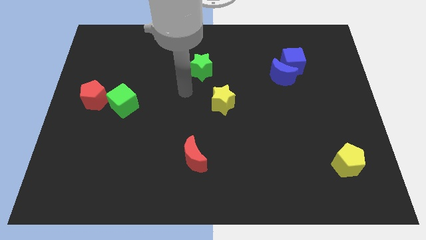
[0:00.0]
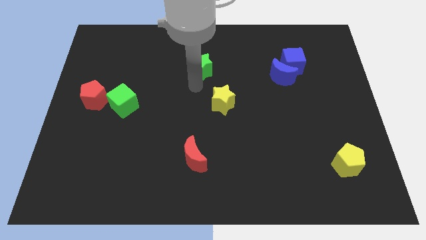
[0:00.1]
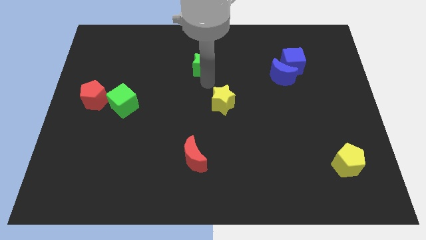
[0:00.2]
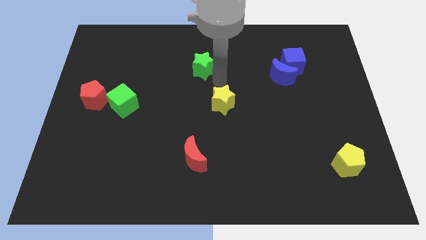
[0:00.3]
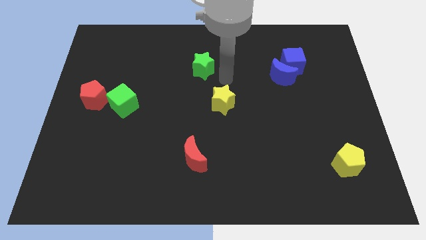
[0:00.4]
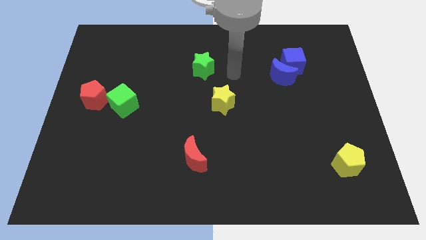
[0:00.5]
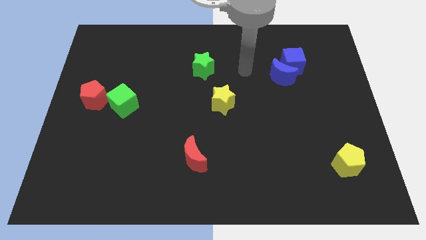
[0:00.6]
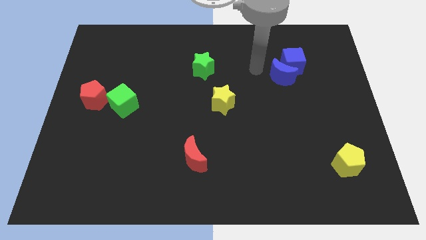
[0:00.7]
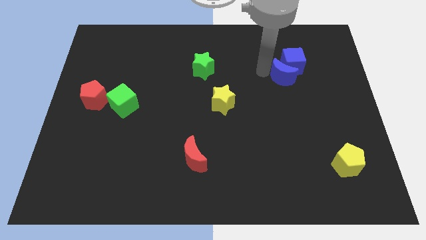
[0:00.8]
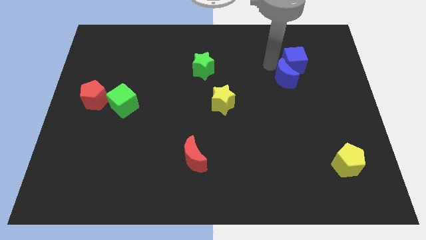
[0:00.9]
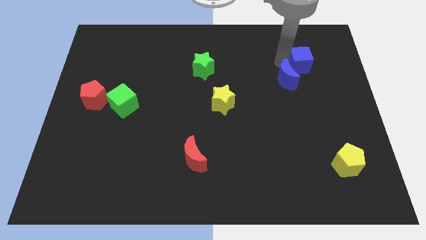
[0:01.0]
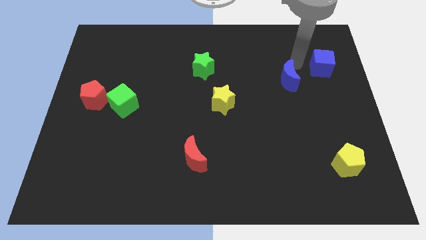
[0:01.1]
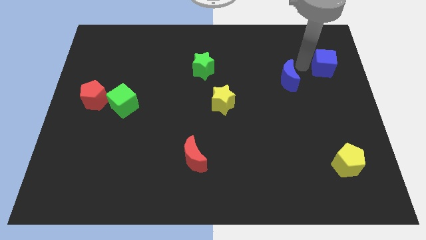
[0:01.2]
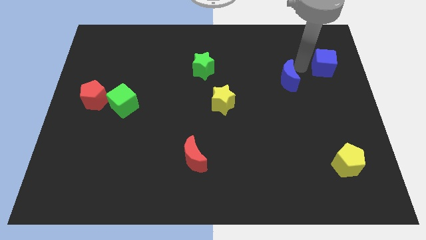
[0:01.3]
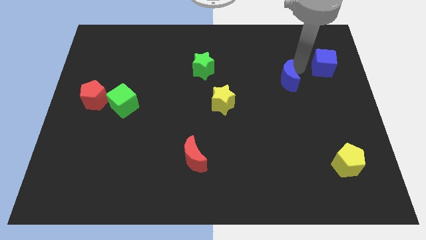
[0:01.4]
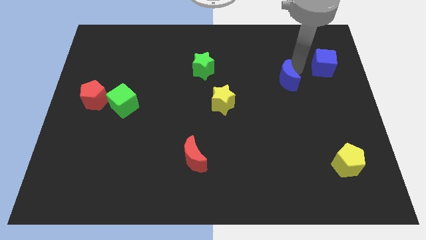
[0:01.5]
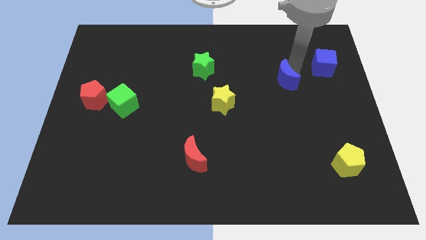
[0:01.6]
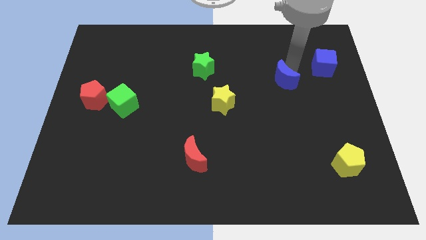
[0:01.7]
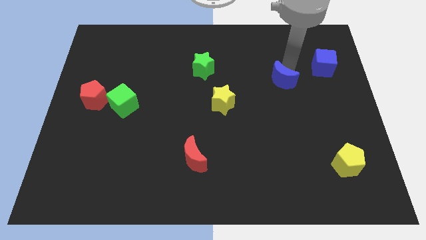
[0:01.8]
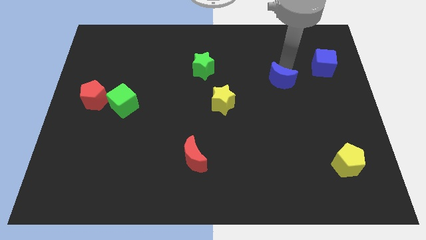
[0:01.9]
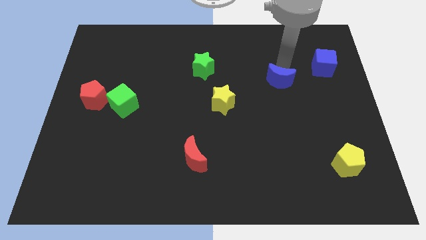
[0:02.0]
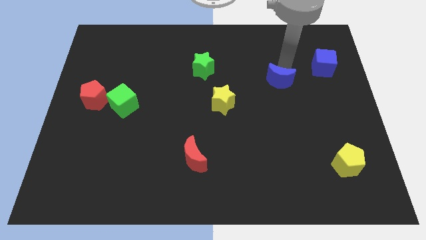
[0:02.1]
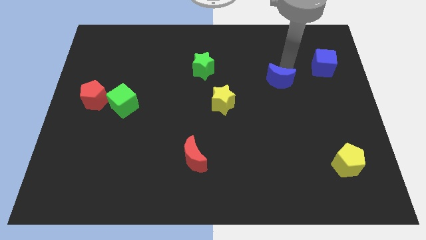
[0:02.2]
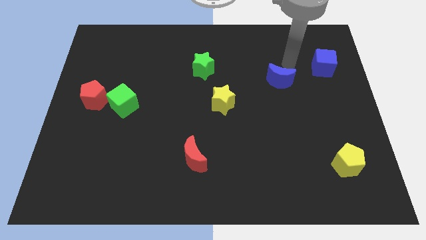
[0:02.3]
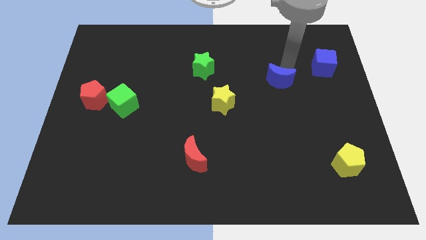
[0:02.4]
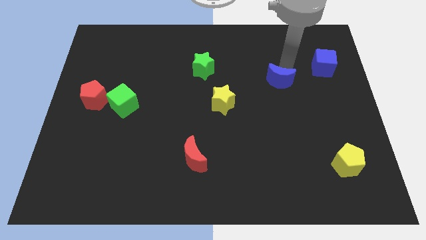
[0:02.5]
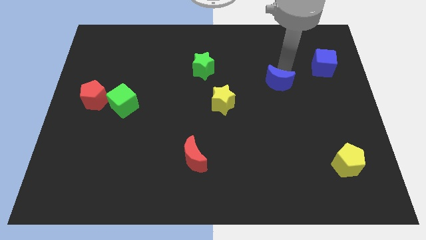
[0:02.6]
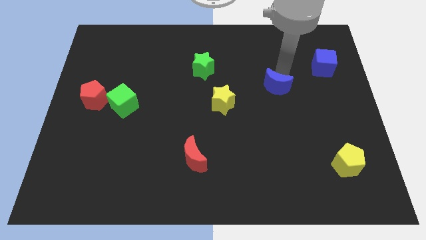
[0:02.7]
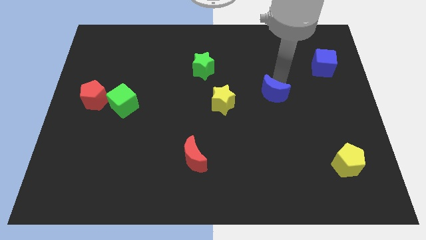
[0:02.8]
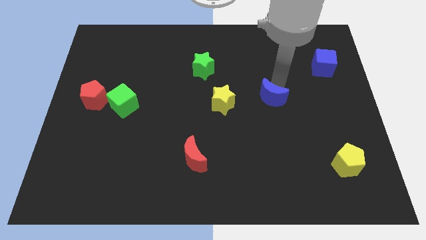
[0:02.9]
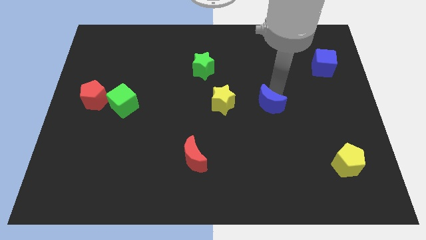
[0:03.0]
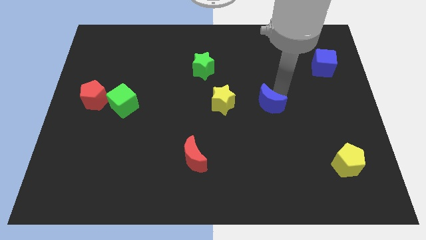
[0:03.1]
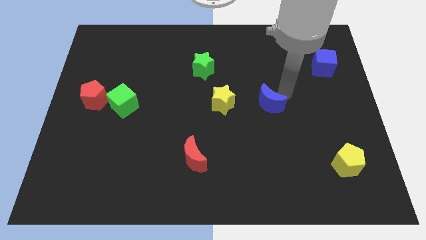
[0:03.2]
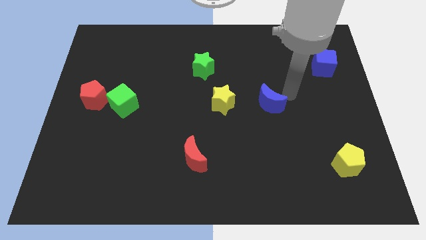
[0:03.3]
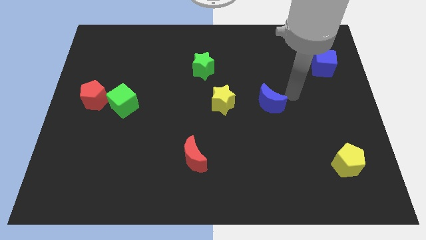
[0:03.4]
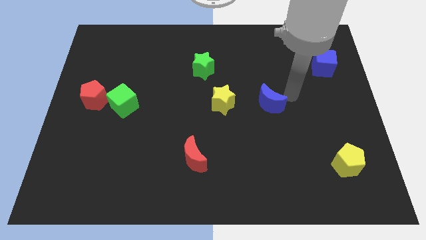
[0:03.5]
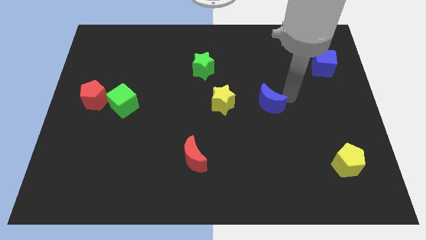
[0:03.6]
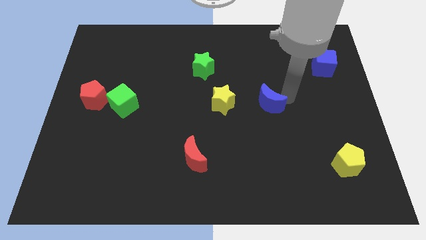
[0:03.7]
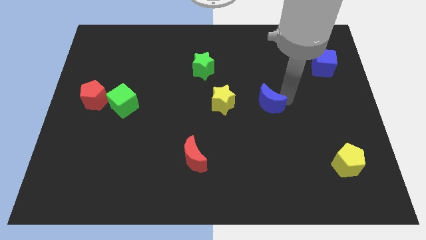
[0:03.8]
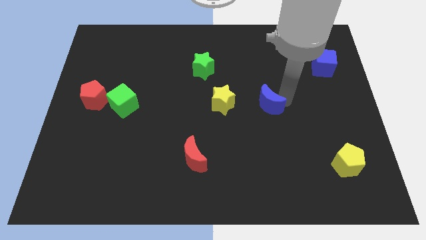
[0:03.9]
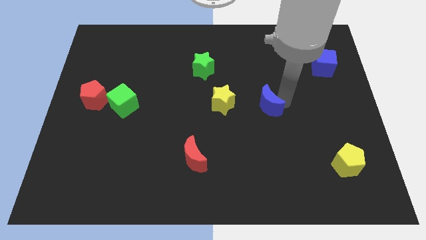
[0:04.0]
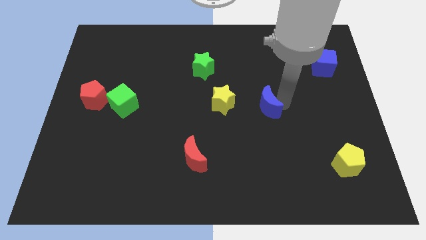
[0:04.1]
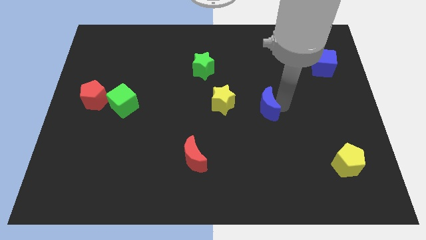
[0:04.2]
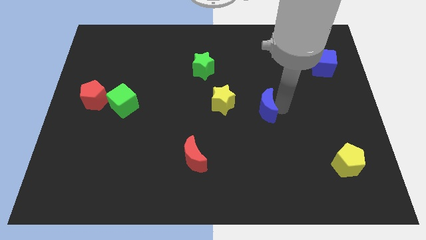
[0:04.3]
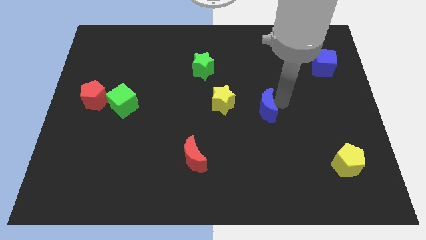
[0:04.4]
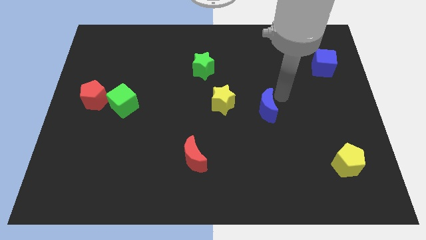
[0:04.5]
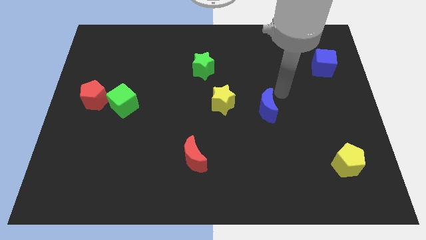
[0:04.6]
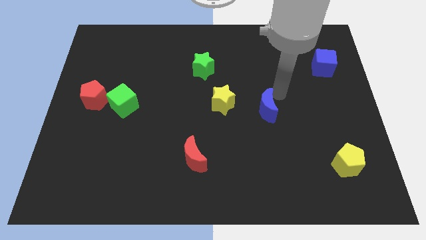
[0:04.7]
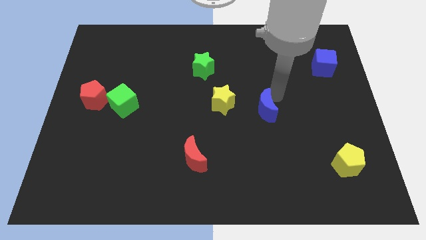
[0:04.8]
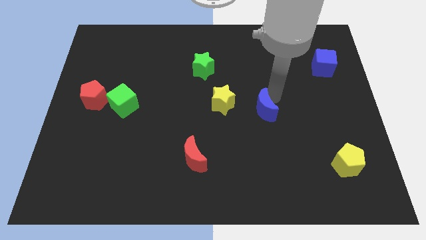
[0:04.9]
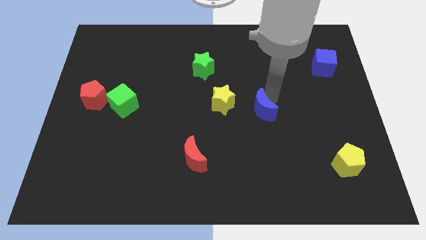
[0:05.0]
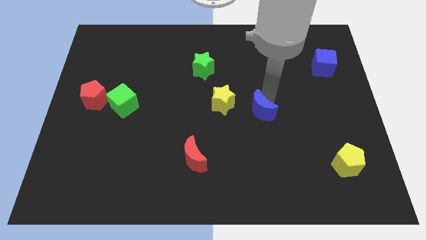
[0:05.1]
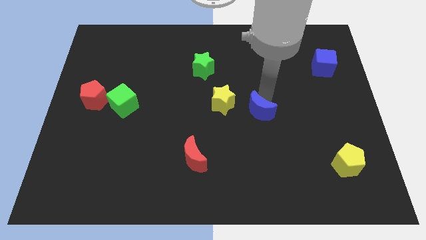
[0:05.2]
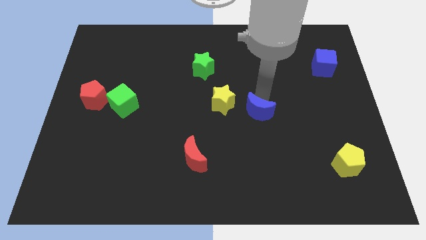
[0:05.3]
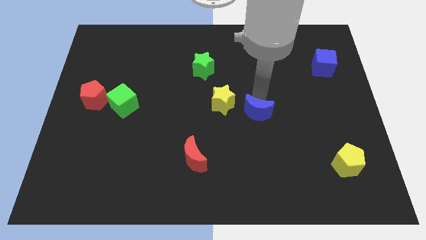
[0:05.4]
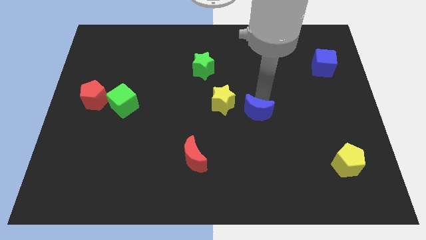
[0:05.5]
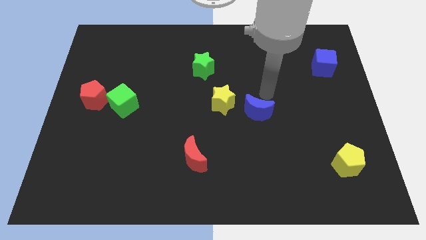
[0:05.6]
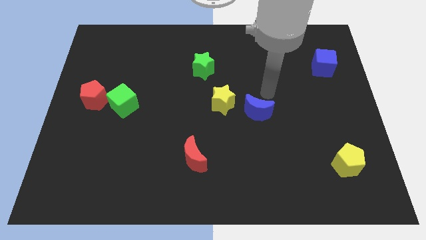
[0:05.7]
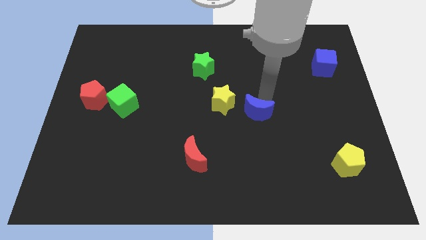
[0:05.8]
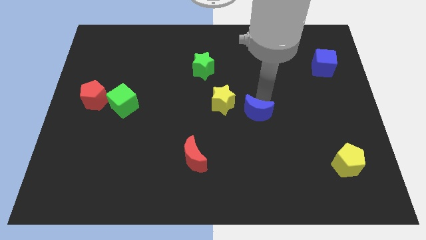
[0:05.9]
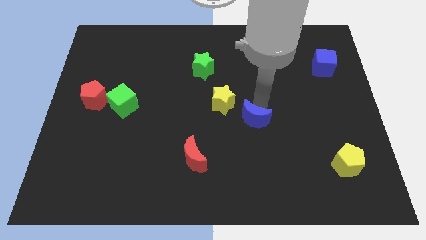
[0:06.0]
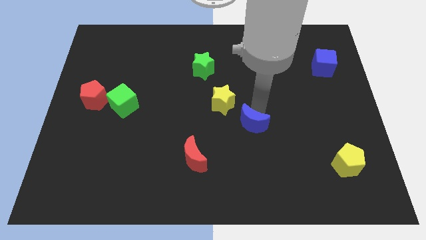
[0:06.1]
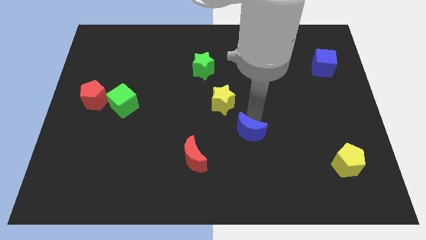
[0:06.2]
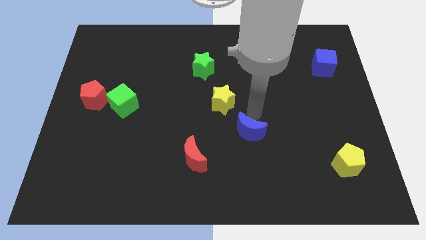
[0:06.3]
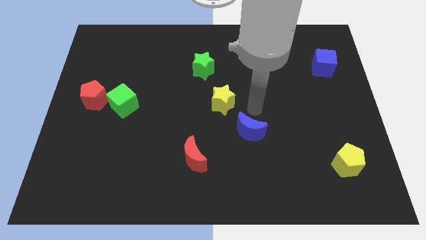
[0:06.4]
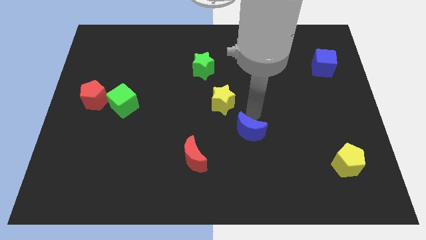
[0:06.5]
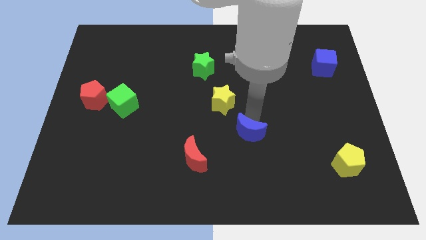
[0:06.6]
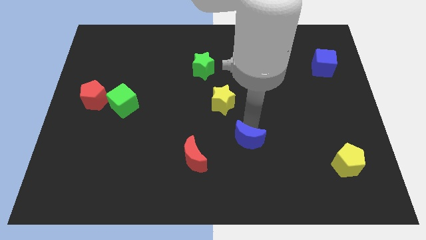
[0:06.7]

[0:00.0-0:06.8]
slide the blue moon to the right side of the red moon

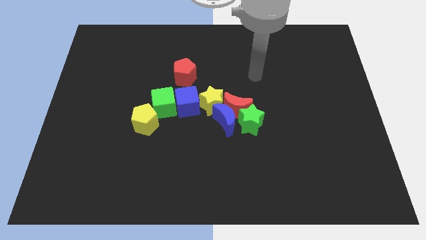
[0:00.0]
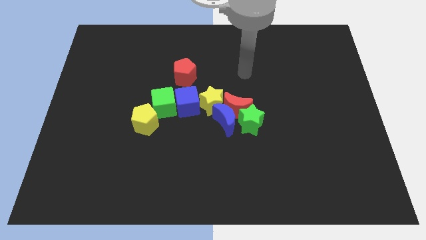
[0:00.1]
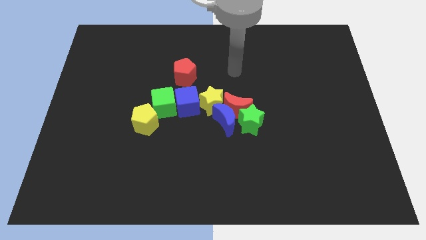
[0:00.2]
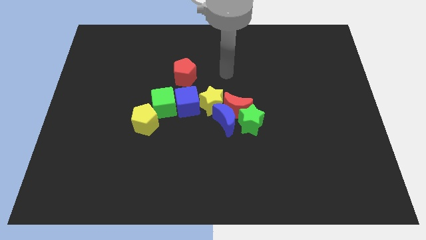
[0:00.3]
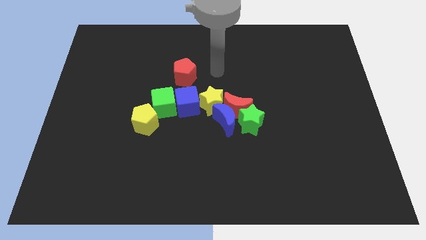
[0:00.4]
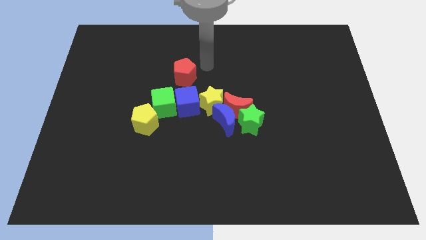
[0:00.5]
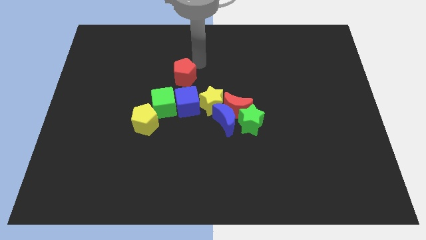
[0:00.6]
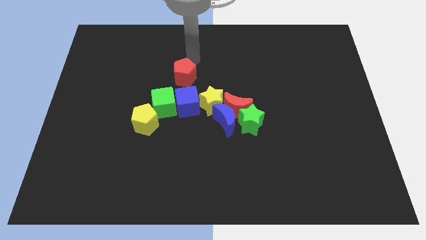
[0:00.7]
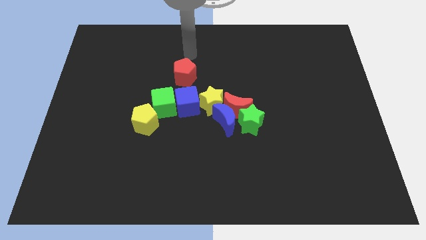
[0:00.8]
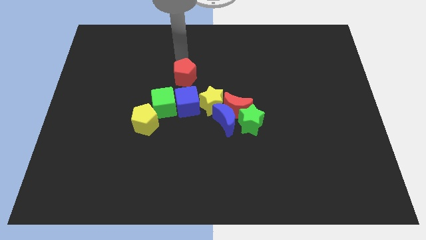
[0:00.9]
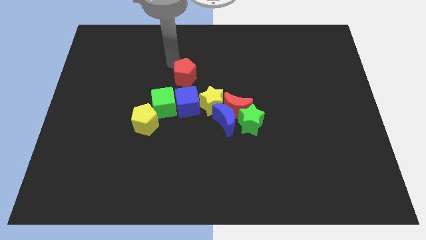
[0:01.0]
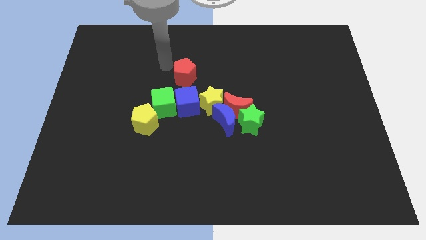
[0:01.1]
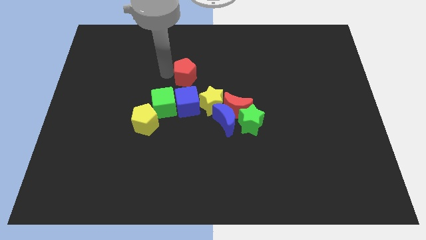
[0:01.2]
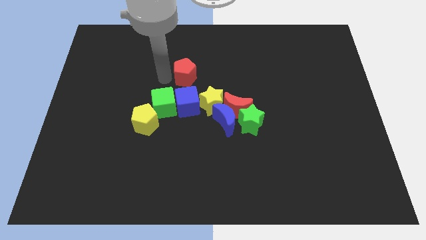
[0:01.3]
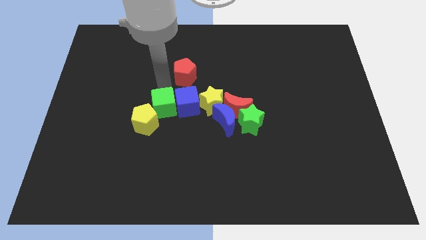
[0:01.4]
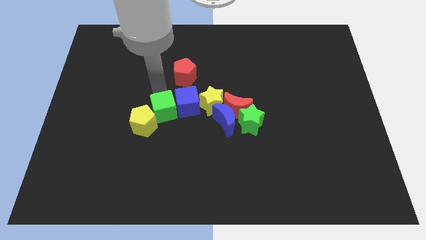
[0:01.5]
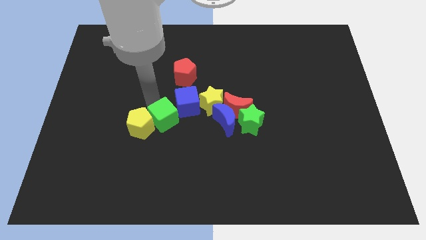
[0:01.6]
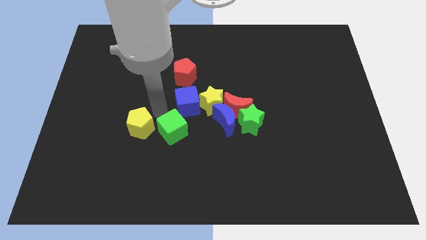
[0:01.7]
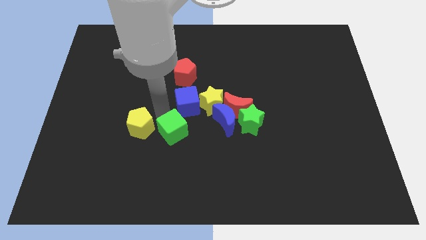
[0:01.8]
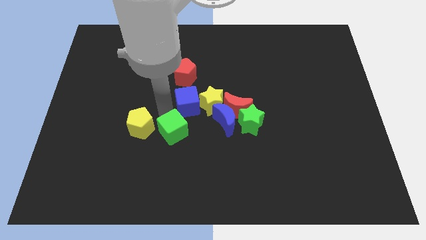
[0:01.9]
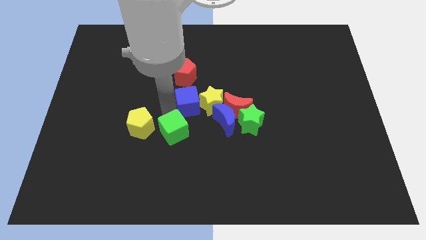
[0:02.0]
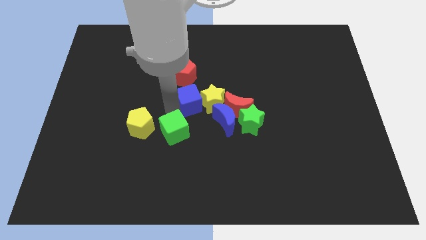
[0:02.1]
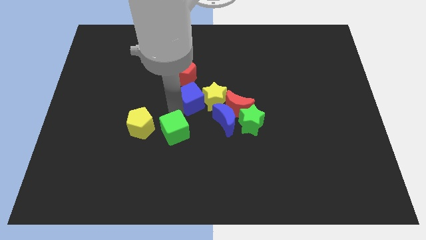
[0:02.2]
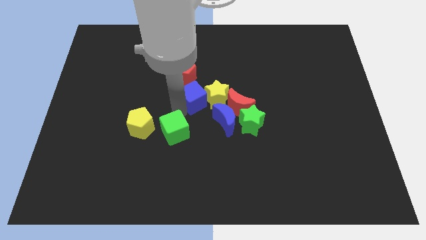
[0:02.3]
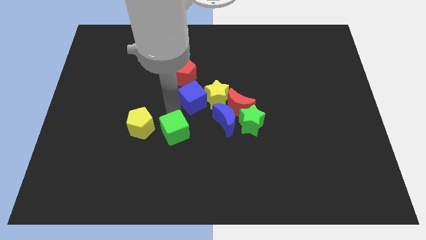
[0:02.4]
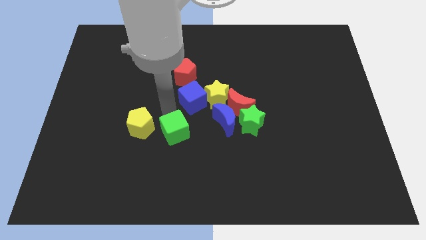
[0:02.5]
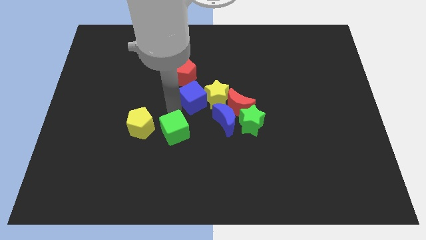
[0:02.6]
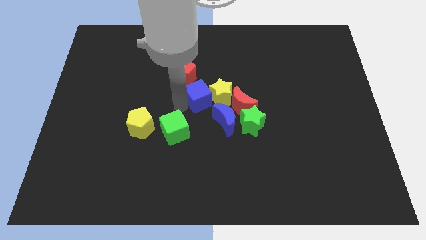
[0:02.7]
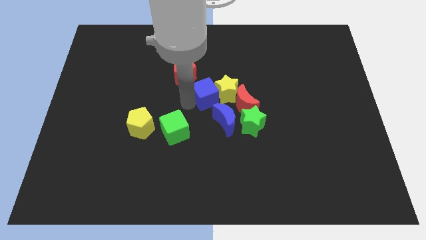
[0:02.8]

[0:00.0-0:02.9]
push the blue cube to the top left of the red moon
